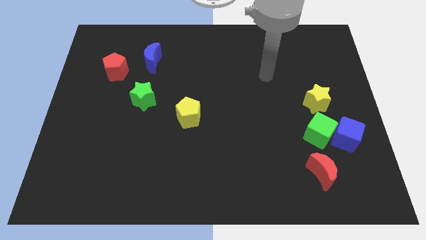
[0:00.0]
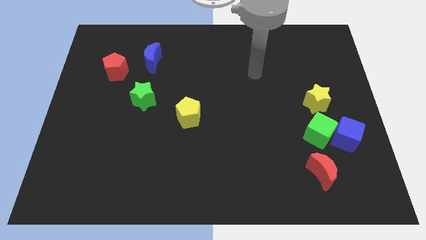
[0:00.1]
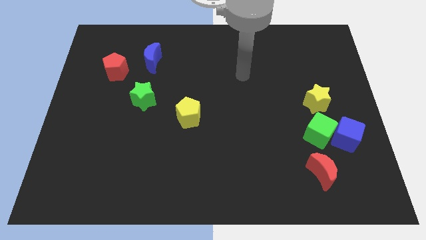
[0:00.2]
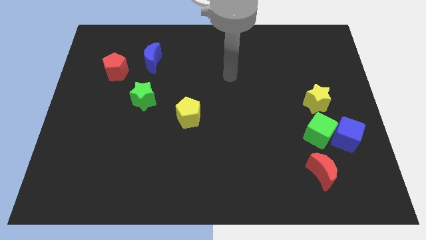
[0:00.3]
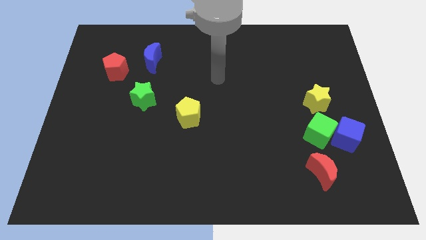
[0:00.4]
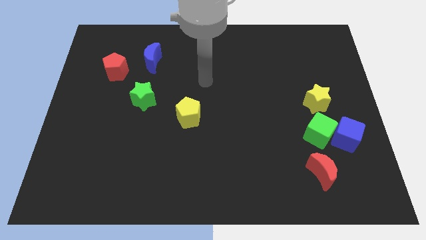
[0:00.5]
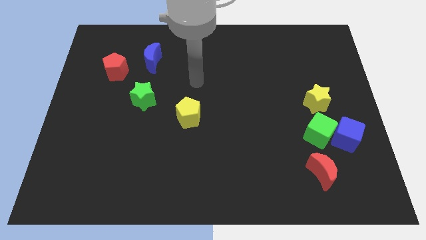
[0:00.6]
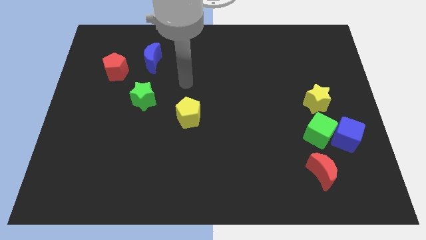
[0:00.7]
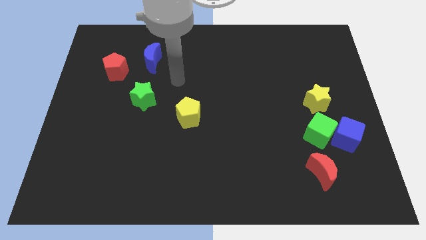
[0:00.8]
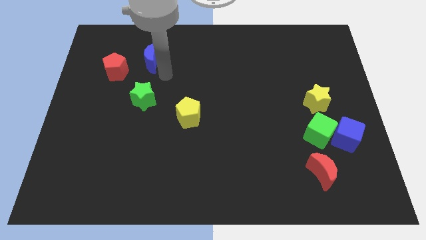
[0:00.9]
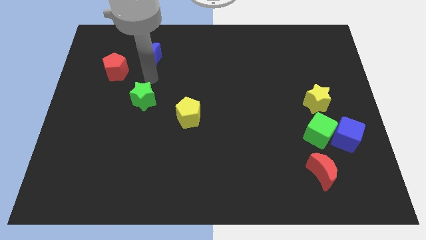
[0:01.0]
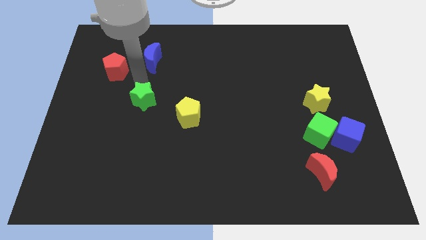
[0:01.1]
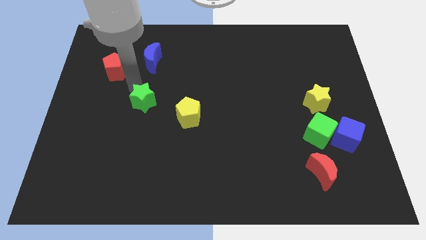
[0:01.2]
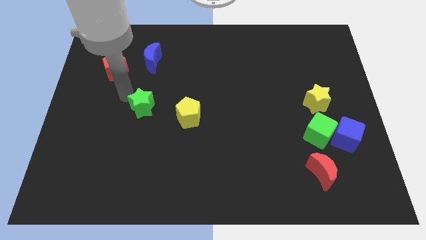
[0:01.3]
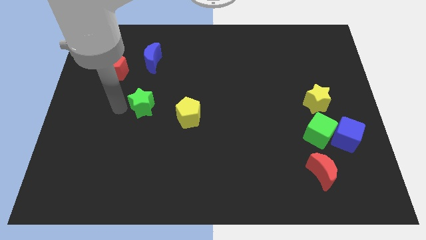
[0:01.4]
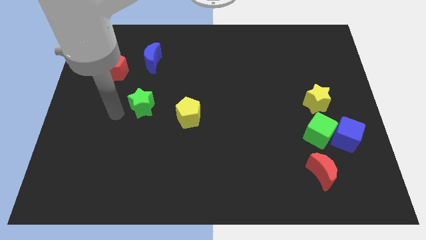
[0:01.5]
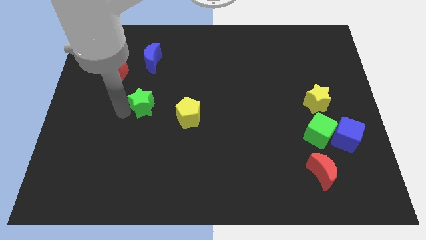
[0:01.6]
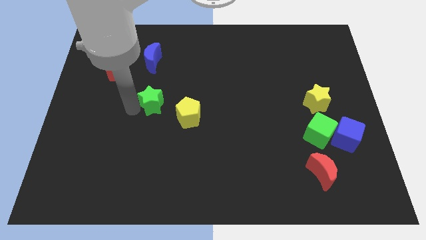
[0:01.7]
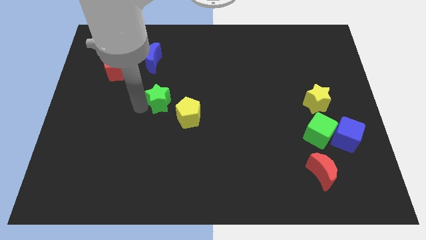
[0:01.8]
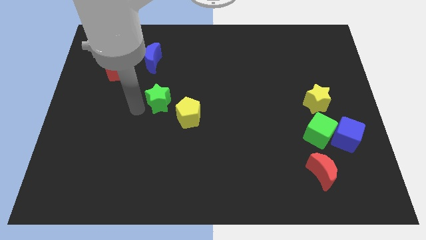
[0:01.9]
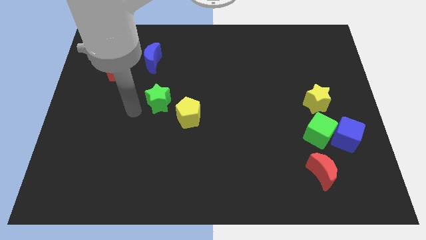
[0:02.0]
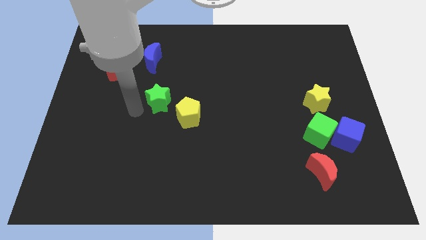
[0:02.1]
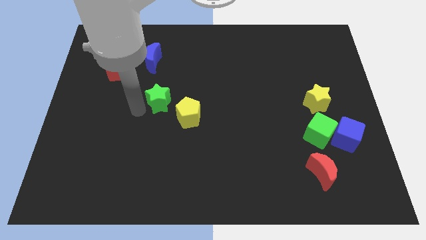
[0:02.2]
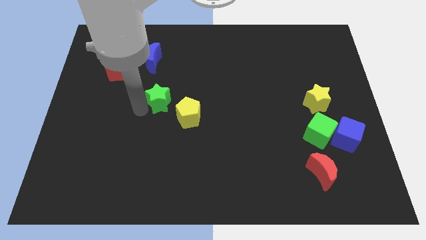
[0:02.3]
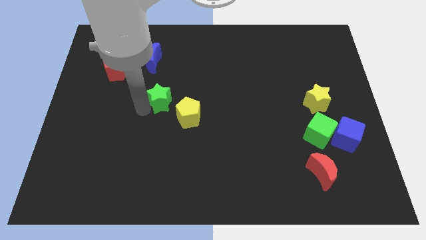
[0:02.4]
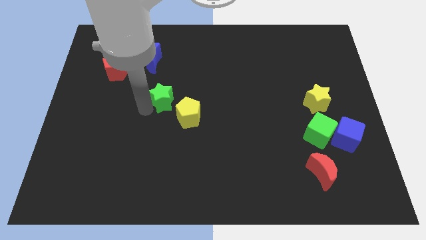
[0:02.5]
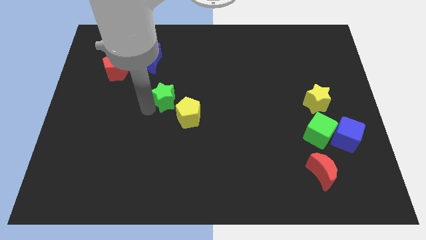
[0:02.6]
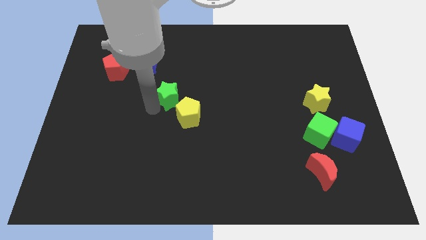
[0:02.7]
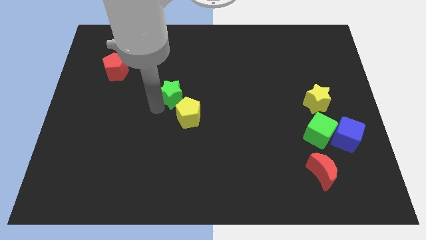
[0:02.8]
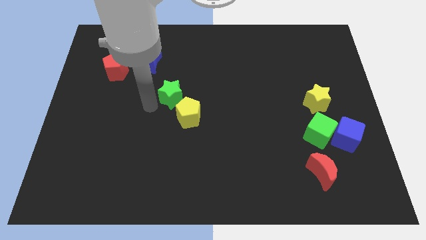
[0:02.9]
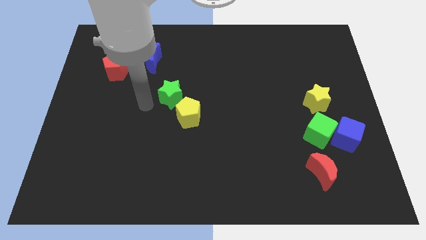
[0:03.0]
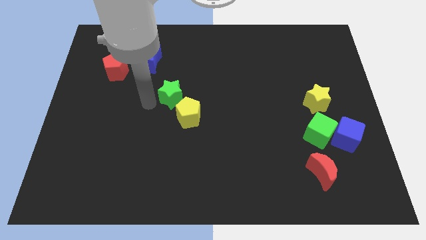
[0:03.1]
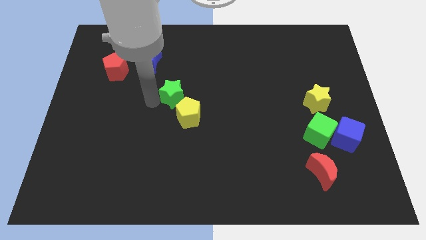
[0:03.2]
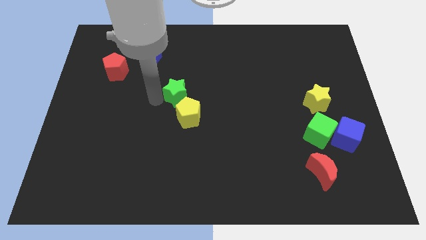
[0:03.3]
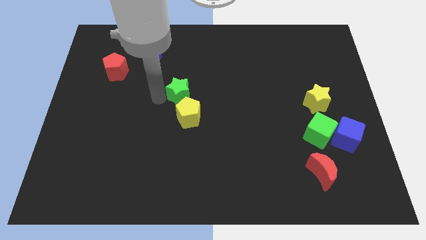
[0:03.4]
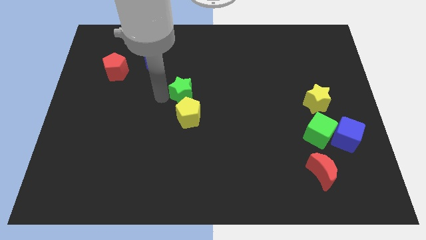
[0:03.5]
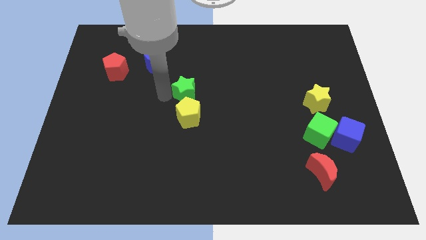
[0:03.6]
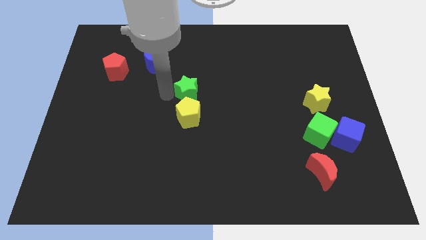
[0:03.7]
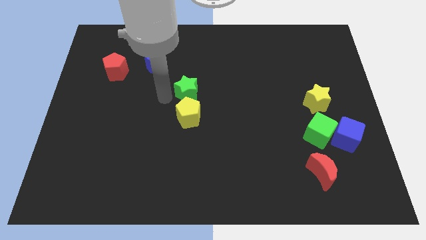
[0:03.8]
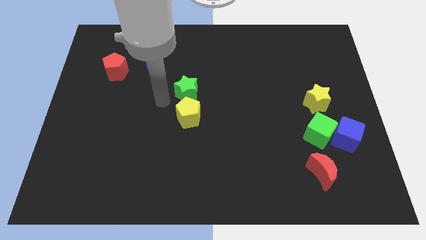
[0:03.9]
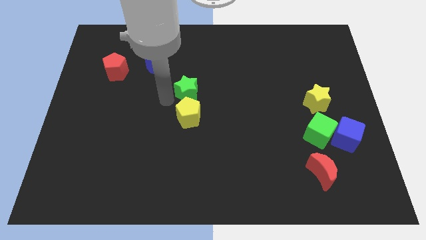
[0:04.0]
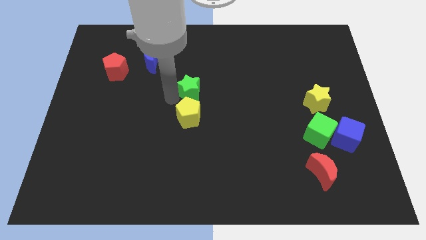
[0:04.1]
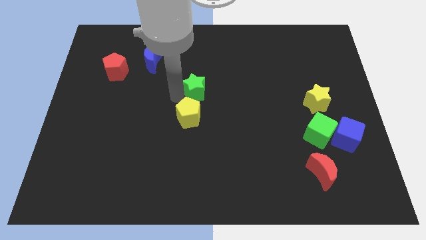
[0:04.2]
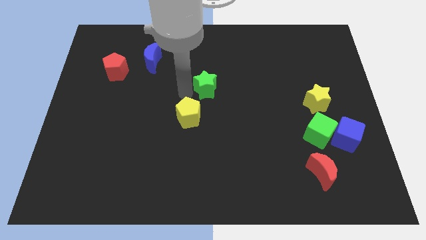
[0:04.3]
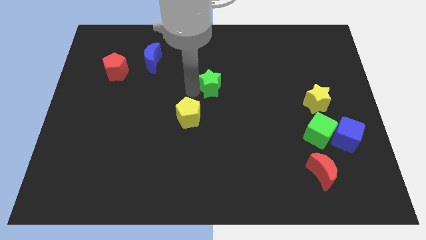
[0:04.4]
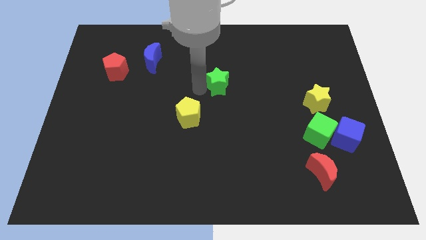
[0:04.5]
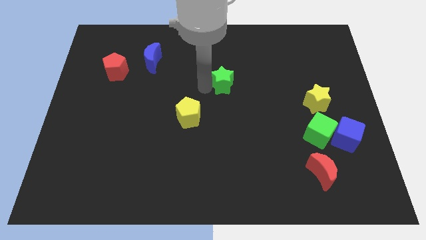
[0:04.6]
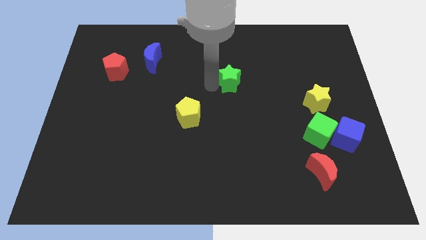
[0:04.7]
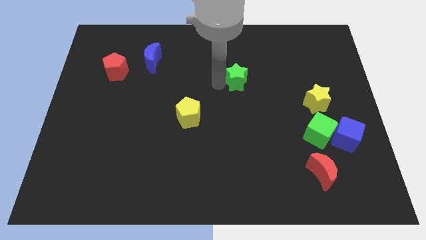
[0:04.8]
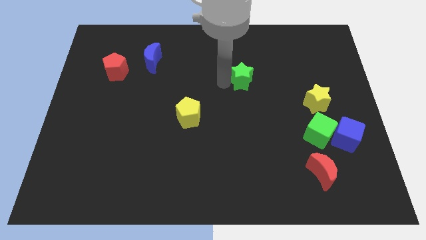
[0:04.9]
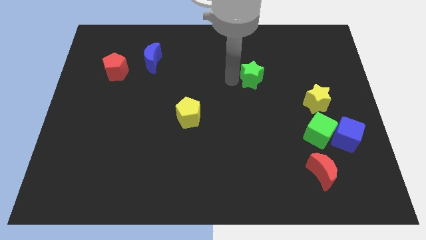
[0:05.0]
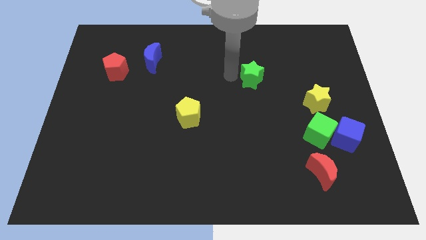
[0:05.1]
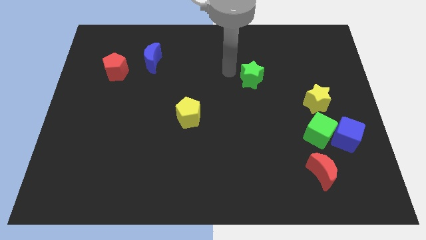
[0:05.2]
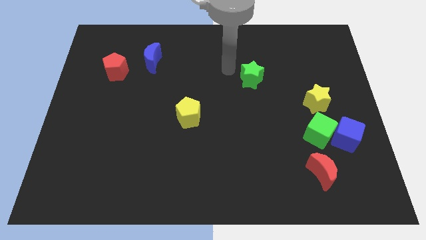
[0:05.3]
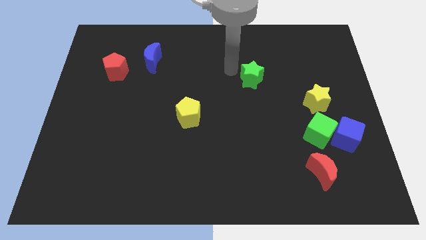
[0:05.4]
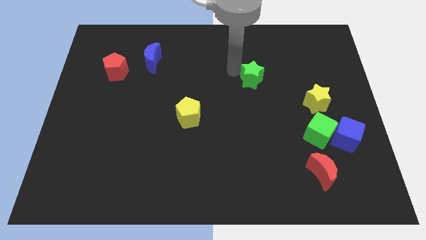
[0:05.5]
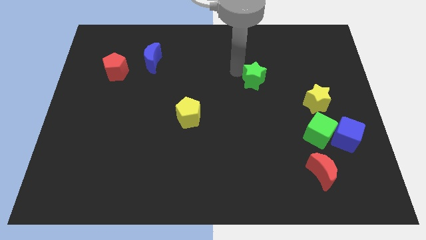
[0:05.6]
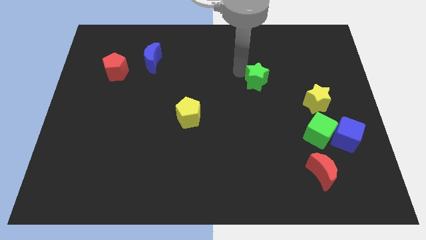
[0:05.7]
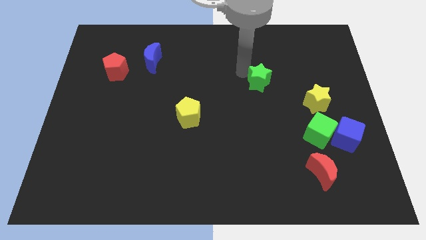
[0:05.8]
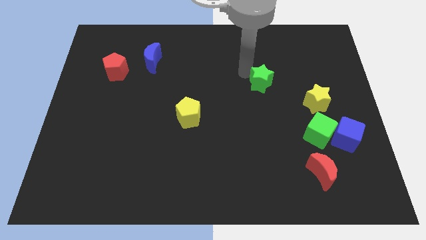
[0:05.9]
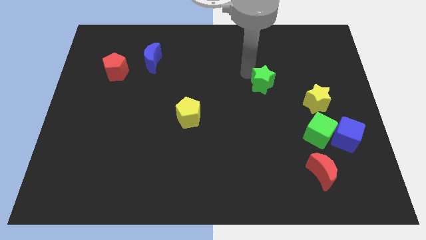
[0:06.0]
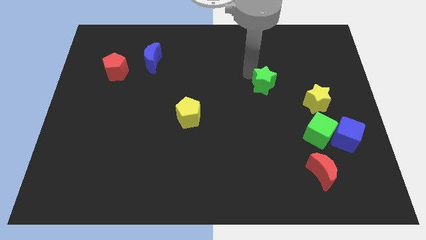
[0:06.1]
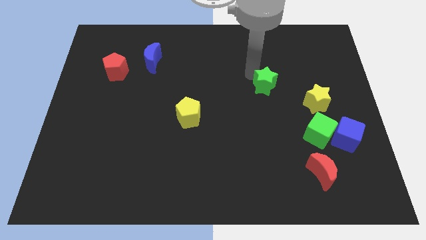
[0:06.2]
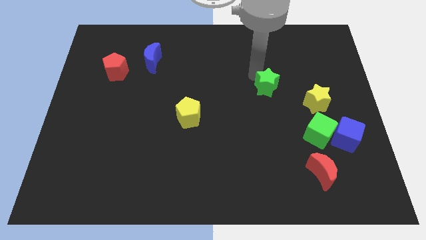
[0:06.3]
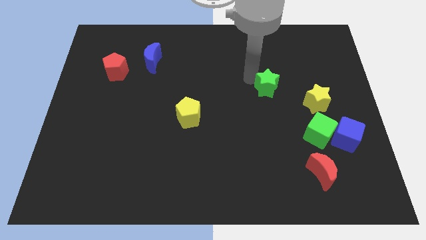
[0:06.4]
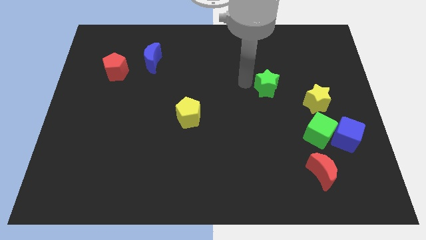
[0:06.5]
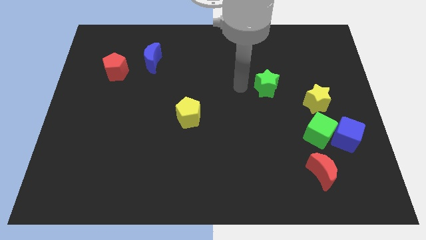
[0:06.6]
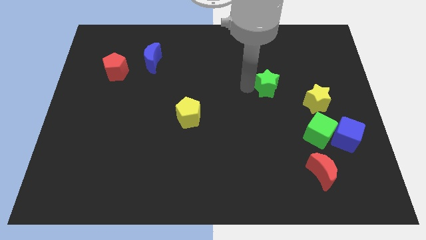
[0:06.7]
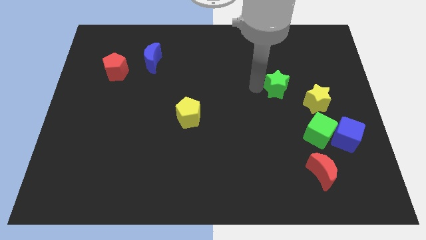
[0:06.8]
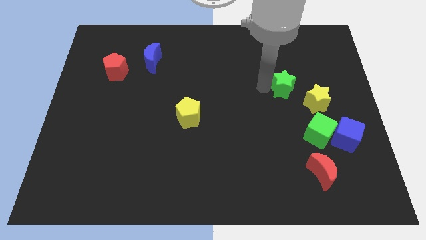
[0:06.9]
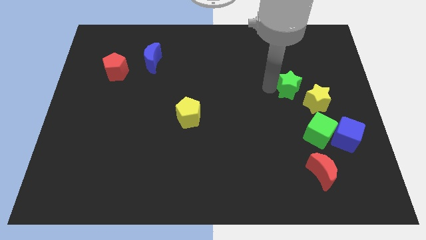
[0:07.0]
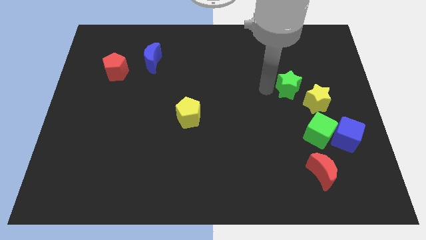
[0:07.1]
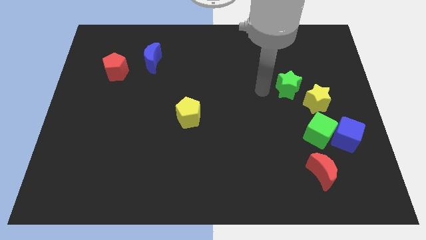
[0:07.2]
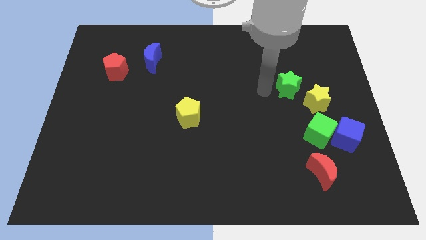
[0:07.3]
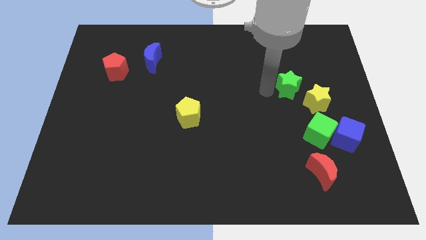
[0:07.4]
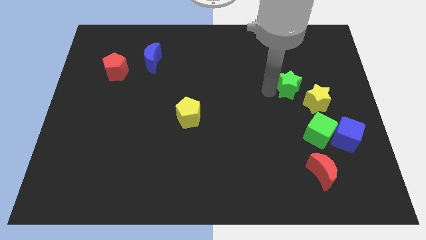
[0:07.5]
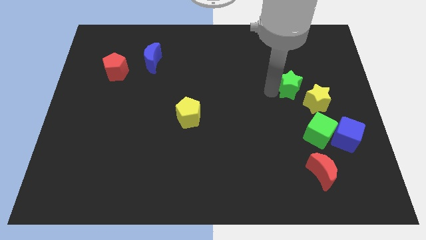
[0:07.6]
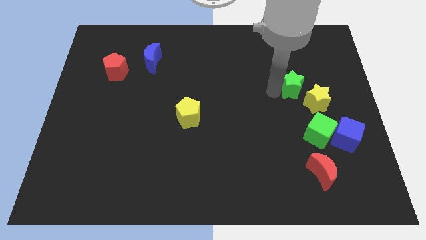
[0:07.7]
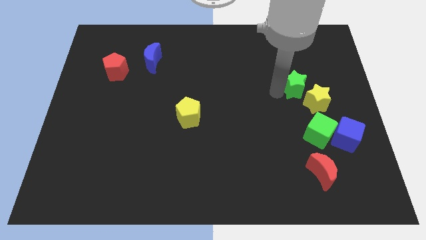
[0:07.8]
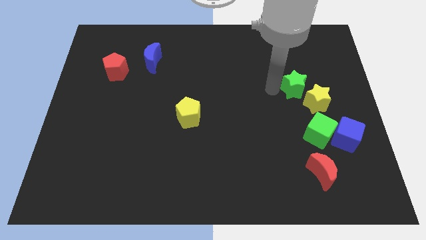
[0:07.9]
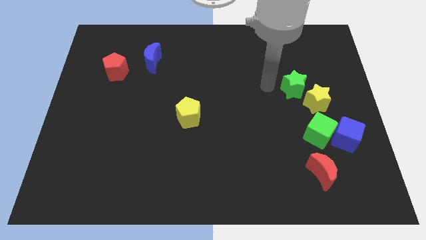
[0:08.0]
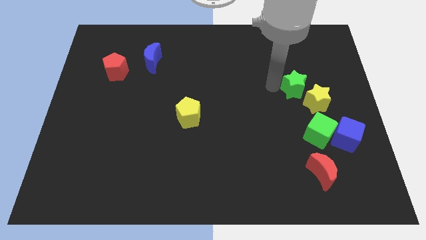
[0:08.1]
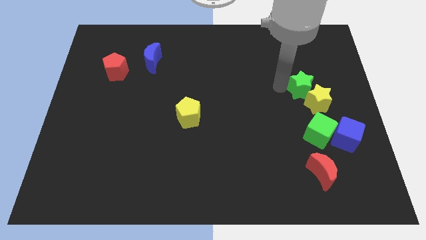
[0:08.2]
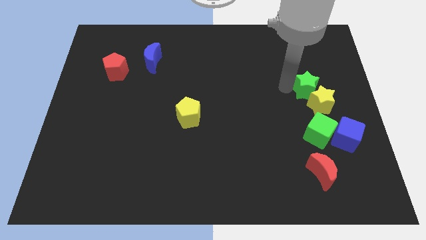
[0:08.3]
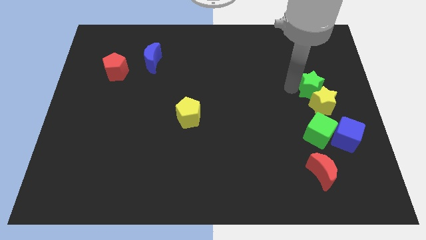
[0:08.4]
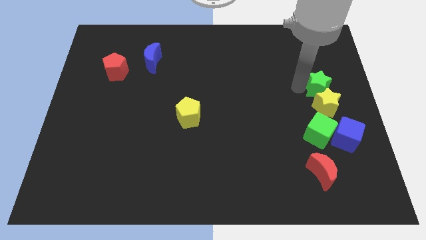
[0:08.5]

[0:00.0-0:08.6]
put the green star to the center right
